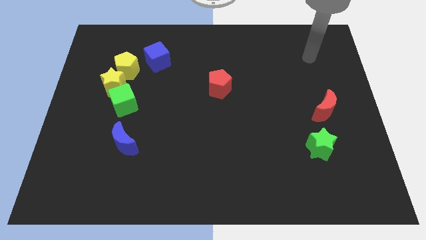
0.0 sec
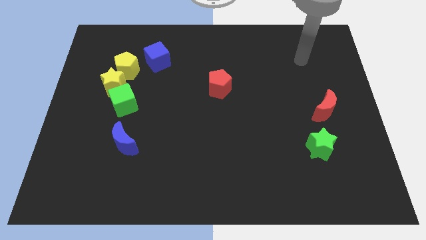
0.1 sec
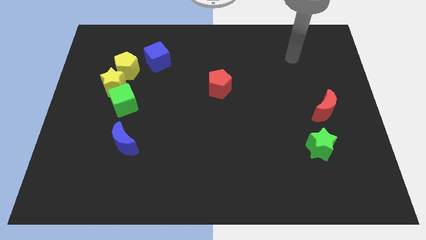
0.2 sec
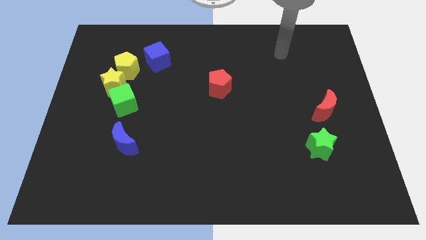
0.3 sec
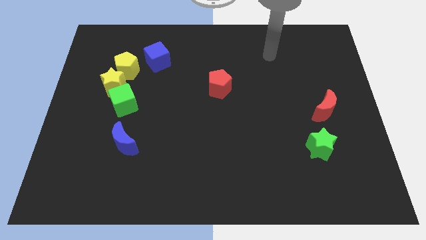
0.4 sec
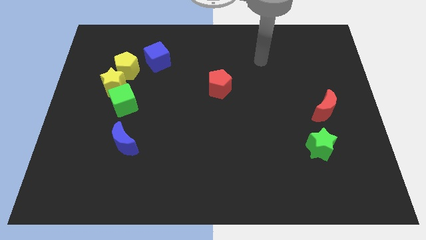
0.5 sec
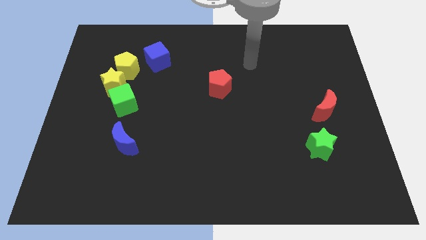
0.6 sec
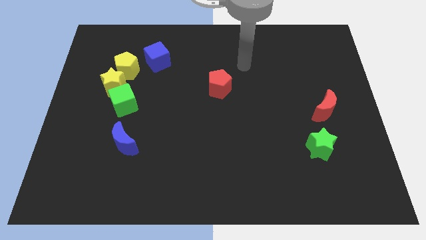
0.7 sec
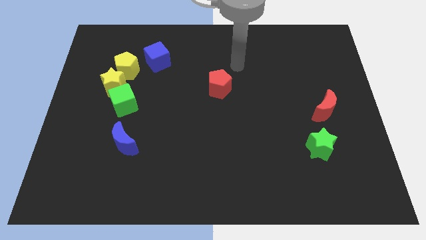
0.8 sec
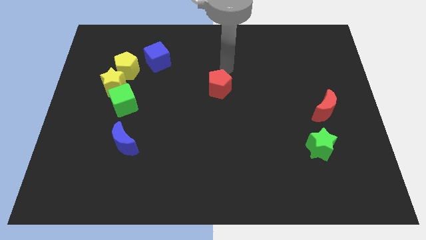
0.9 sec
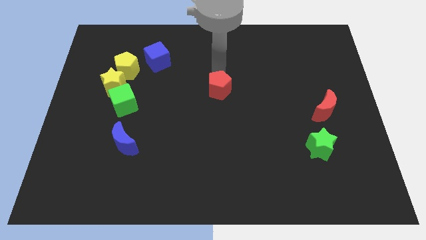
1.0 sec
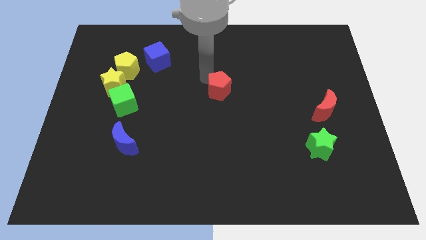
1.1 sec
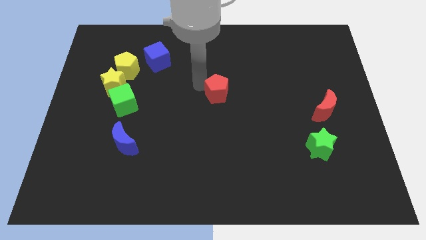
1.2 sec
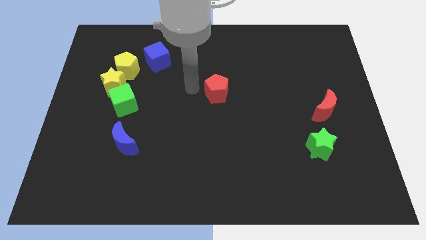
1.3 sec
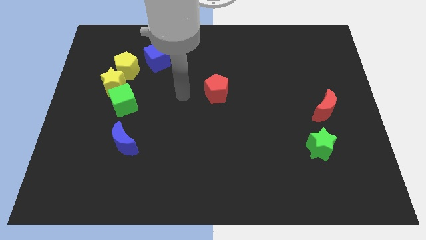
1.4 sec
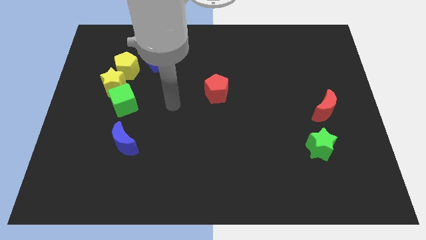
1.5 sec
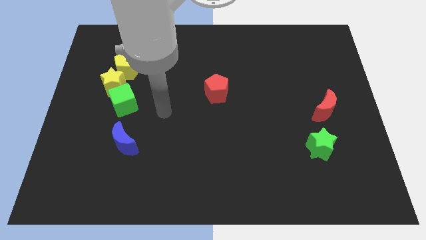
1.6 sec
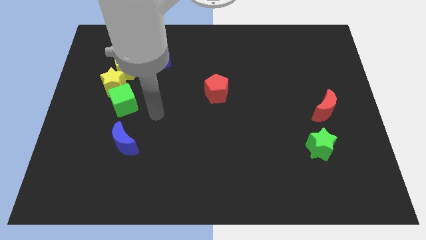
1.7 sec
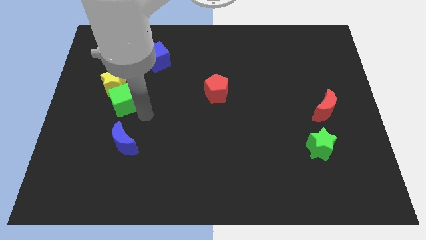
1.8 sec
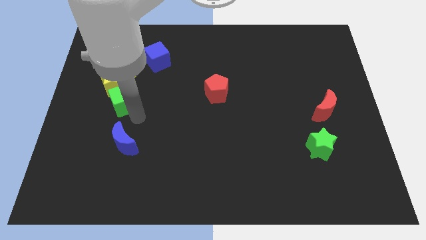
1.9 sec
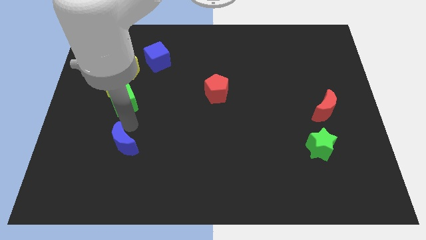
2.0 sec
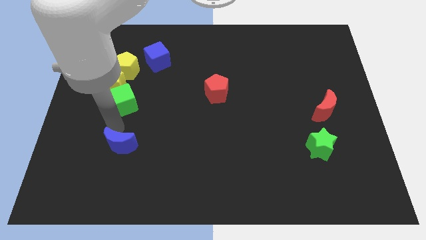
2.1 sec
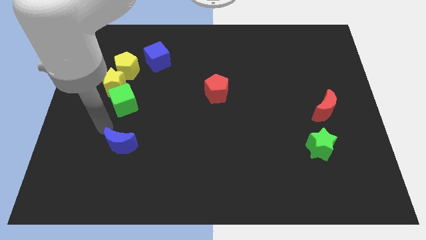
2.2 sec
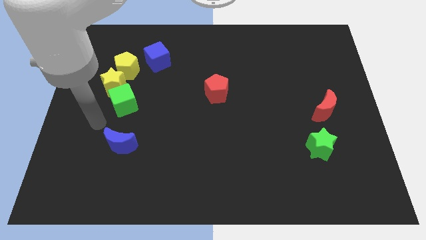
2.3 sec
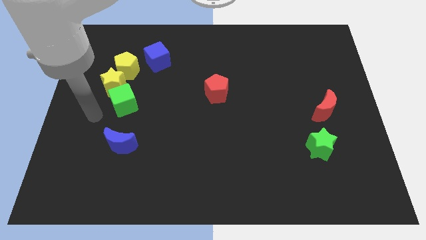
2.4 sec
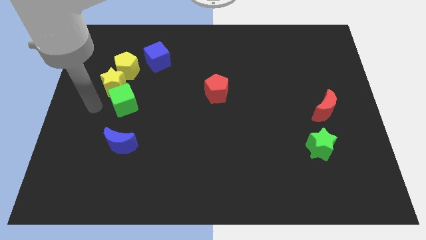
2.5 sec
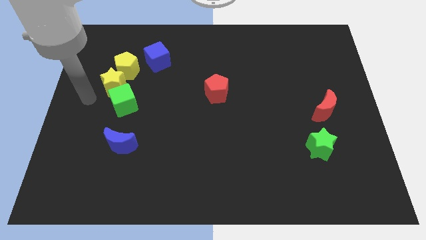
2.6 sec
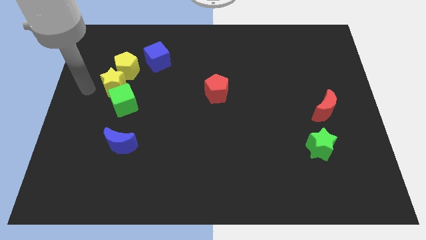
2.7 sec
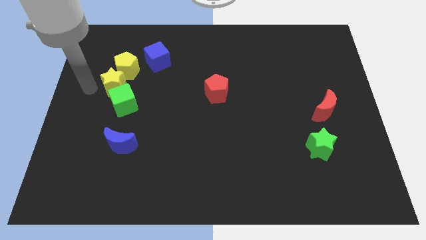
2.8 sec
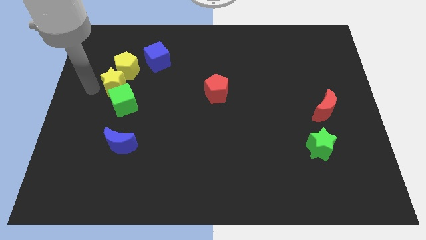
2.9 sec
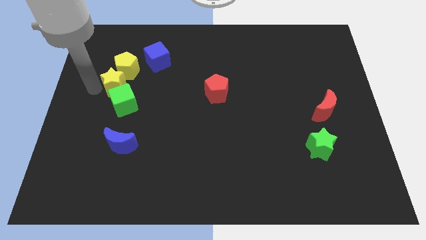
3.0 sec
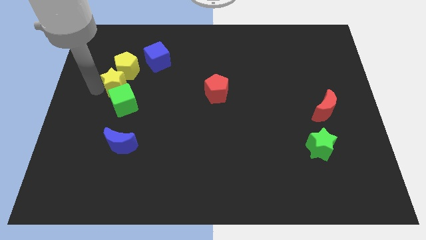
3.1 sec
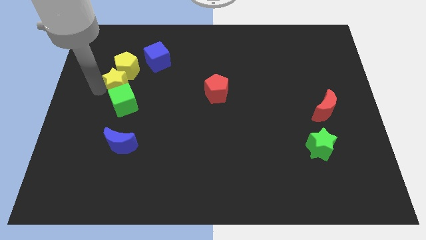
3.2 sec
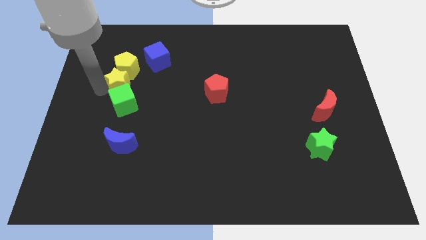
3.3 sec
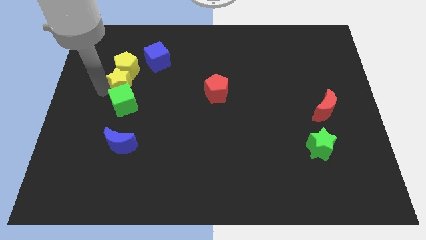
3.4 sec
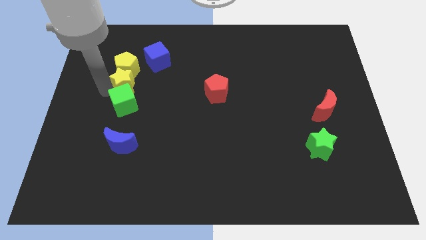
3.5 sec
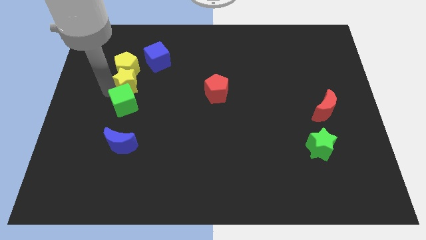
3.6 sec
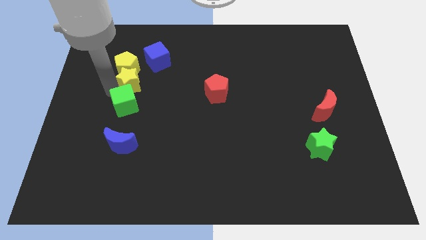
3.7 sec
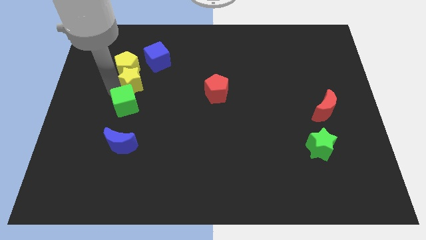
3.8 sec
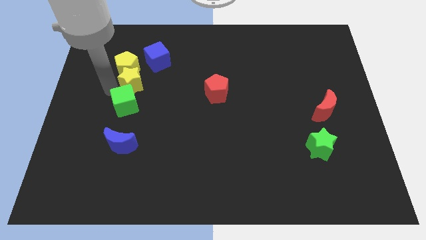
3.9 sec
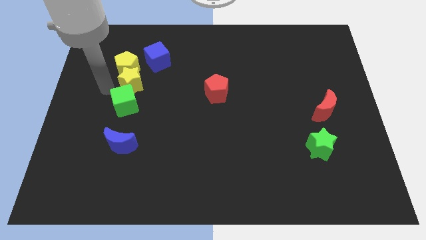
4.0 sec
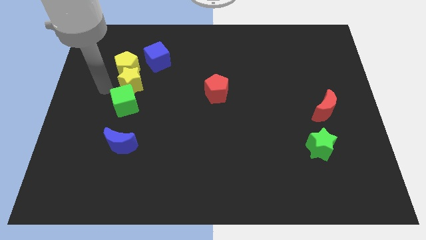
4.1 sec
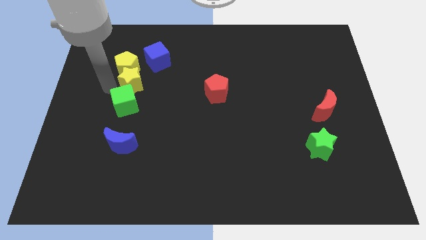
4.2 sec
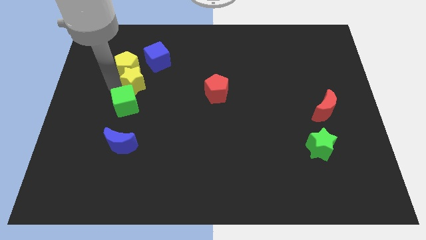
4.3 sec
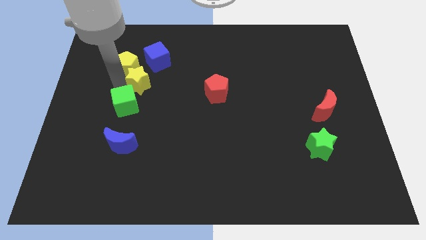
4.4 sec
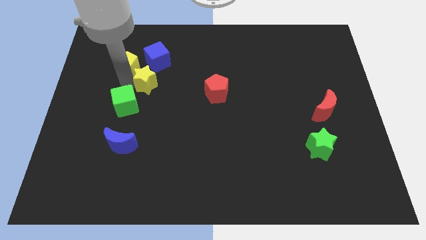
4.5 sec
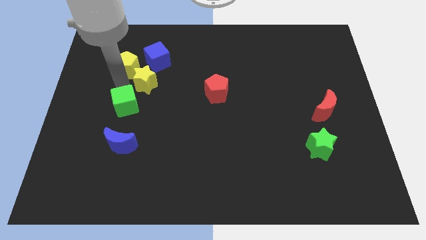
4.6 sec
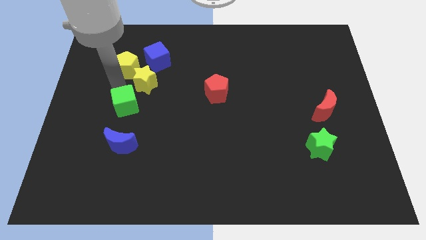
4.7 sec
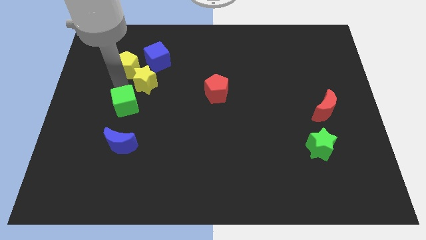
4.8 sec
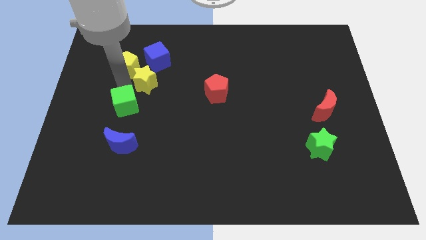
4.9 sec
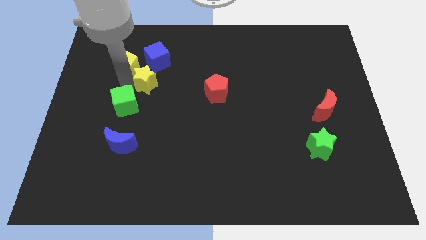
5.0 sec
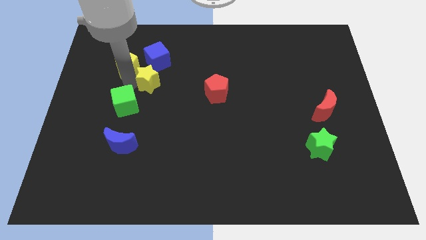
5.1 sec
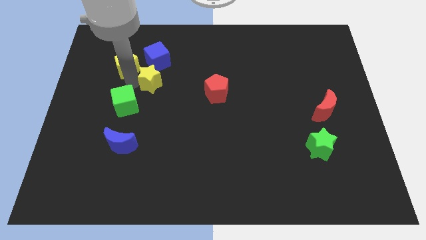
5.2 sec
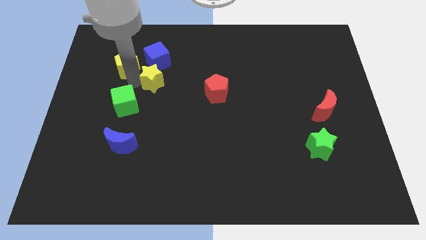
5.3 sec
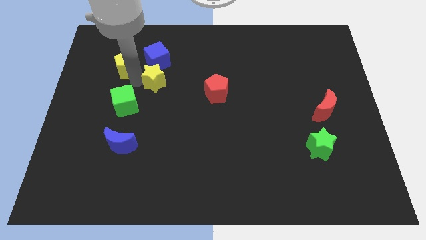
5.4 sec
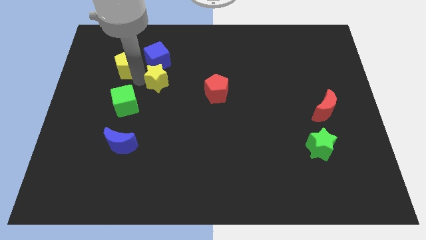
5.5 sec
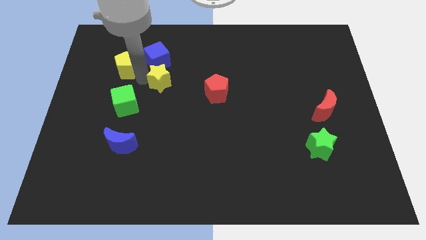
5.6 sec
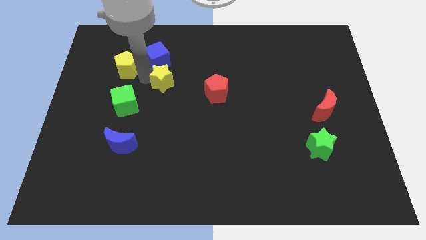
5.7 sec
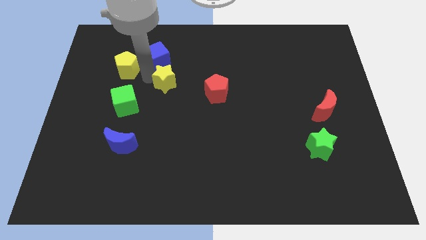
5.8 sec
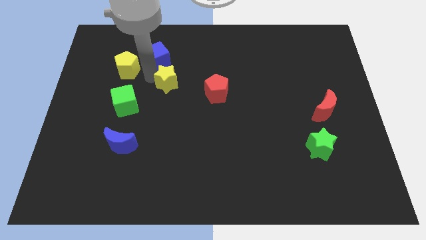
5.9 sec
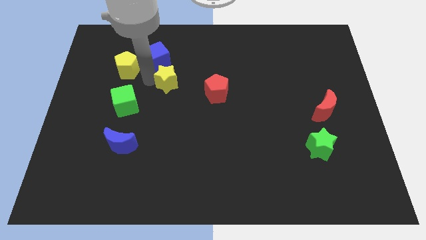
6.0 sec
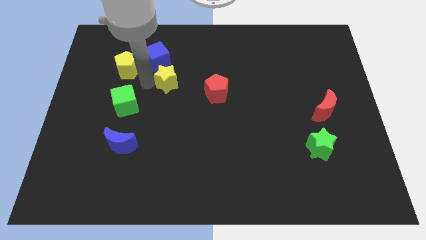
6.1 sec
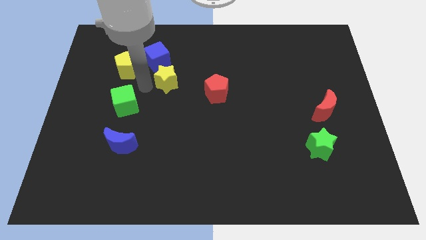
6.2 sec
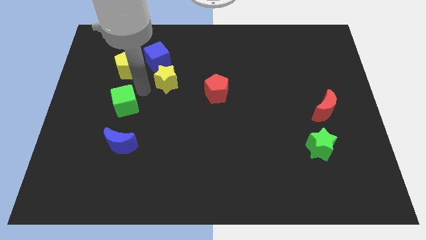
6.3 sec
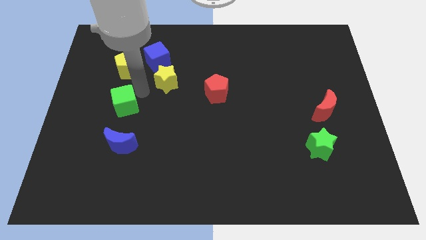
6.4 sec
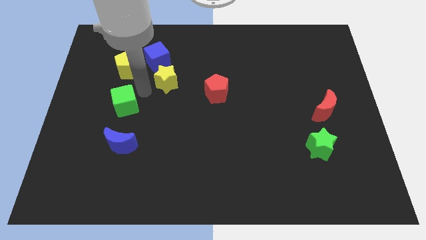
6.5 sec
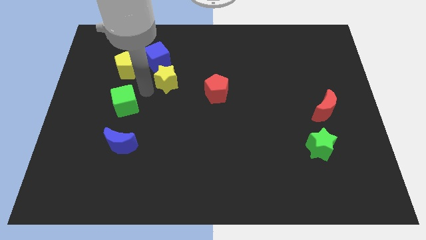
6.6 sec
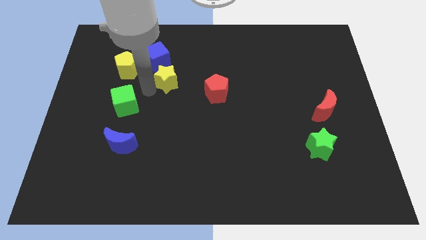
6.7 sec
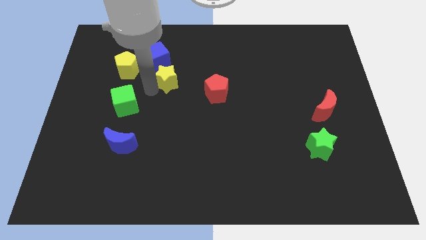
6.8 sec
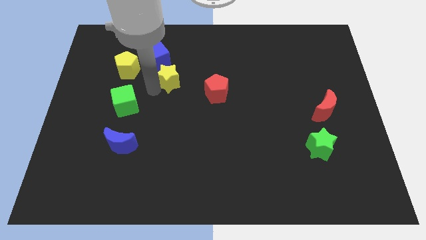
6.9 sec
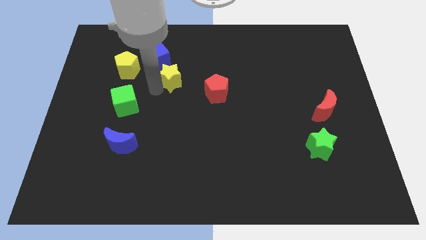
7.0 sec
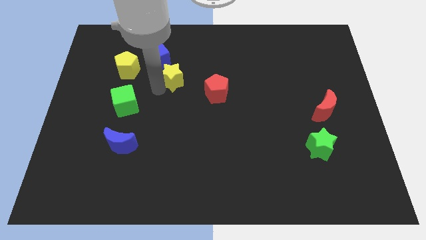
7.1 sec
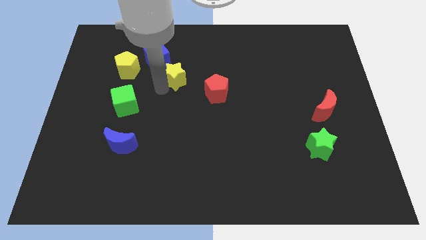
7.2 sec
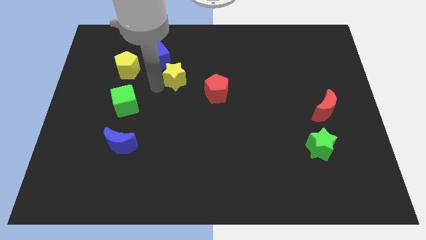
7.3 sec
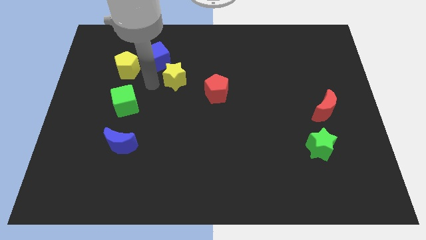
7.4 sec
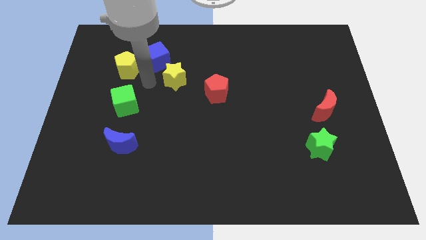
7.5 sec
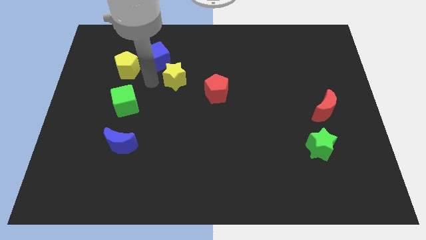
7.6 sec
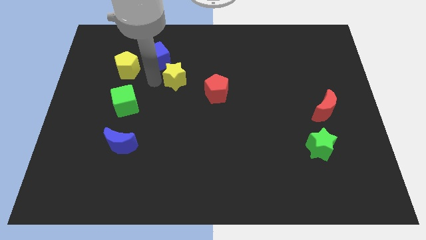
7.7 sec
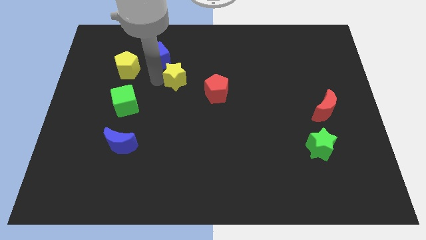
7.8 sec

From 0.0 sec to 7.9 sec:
slide the yellow star diagonally up and to the left of the red pentagon

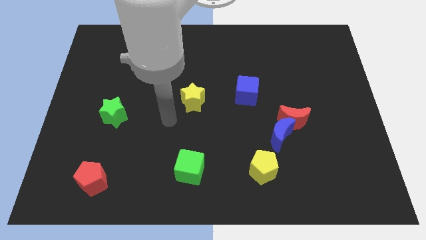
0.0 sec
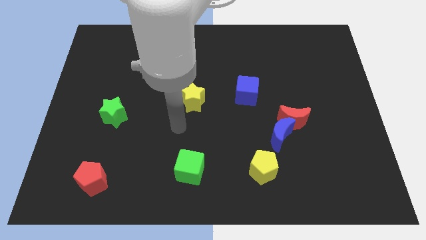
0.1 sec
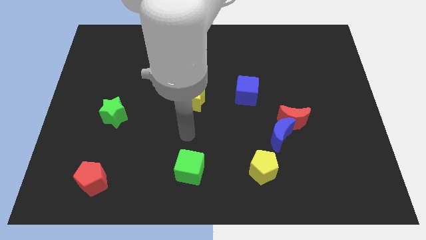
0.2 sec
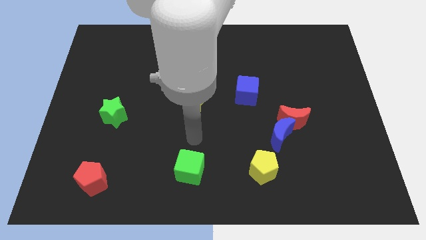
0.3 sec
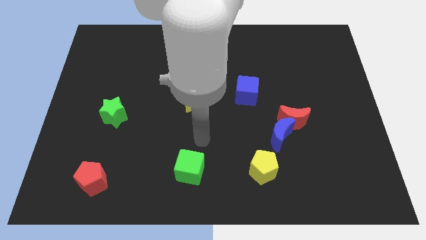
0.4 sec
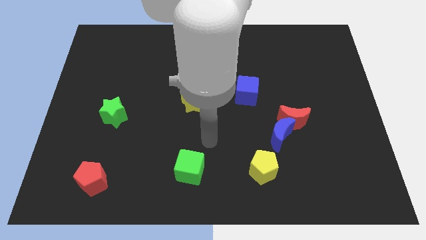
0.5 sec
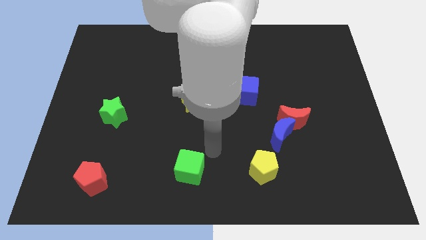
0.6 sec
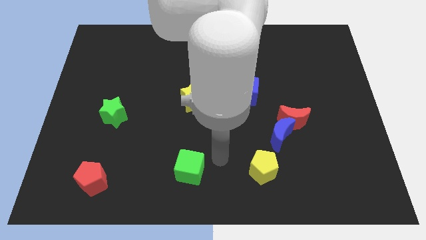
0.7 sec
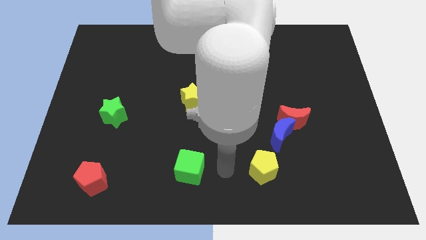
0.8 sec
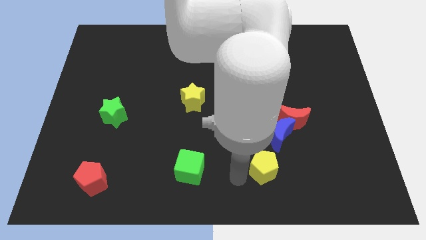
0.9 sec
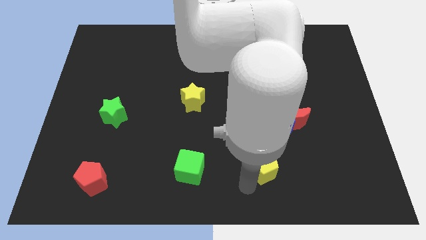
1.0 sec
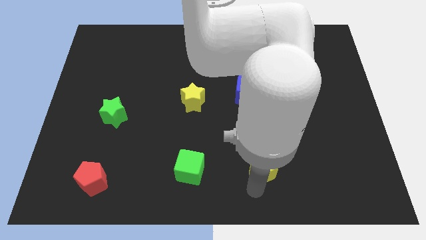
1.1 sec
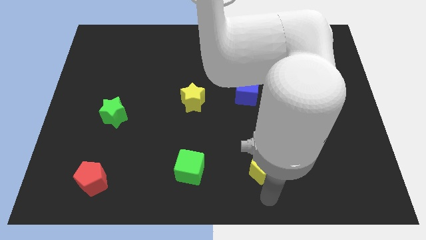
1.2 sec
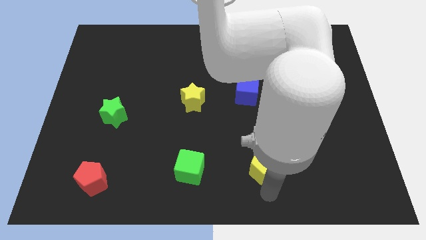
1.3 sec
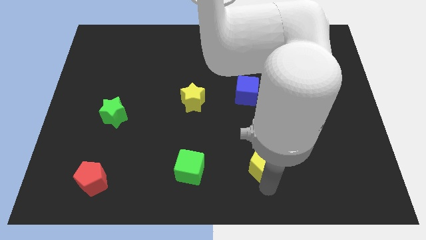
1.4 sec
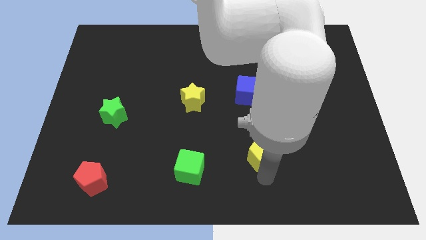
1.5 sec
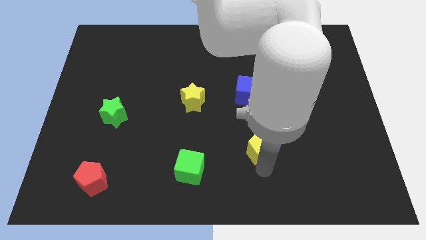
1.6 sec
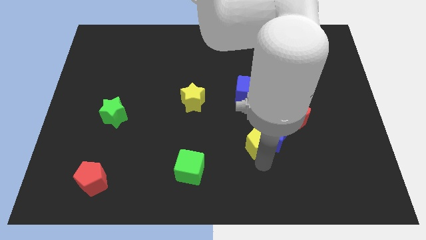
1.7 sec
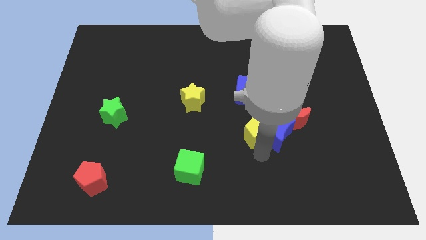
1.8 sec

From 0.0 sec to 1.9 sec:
put the yellow pentagon to the top left of the blue moon
